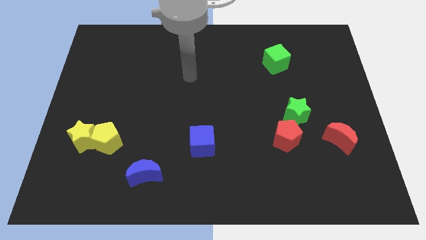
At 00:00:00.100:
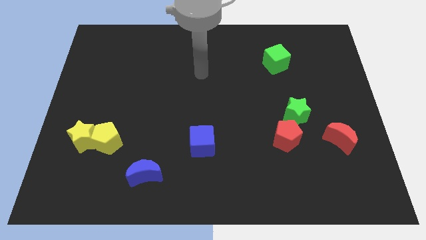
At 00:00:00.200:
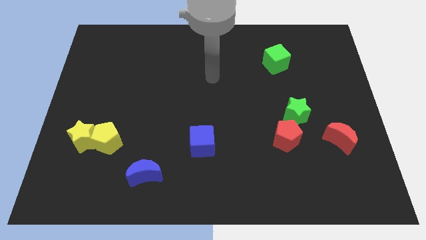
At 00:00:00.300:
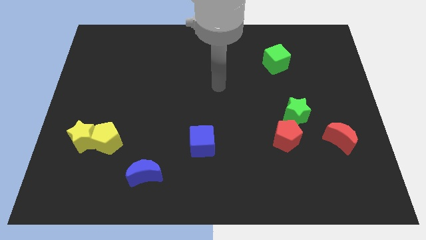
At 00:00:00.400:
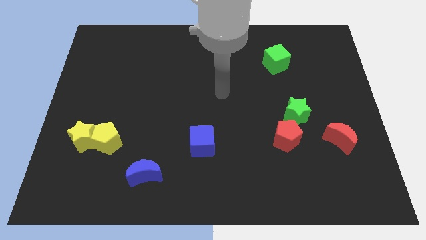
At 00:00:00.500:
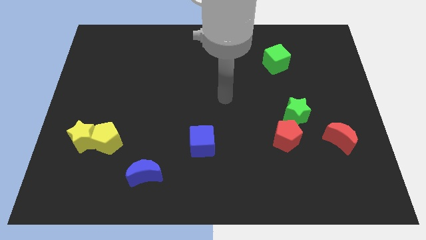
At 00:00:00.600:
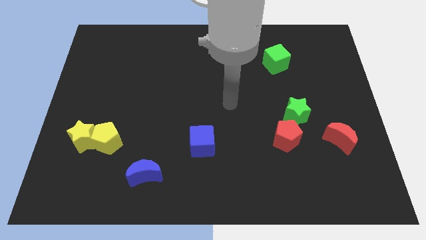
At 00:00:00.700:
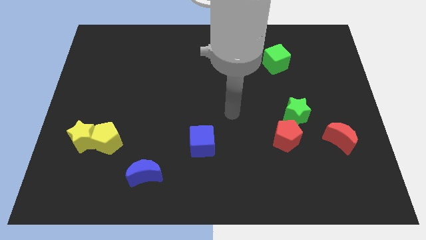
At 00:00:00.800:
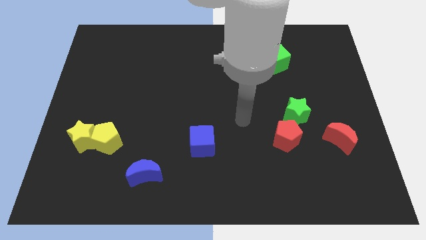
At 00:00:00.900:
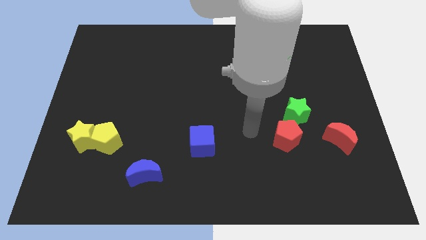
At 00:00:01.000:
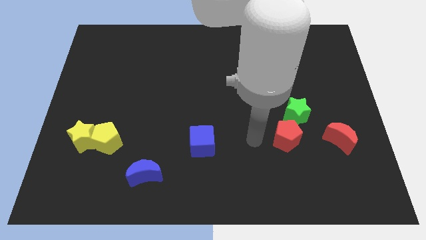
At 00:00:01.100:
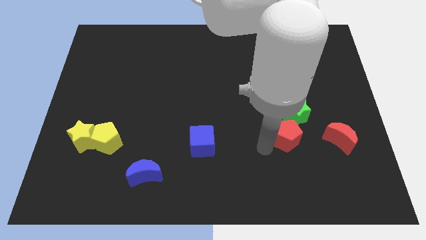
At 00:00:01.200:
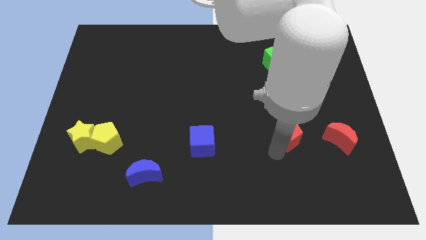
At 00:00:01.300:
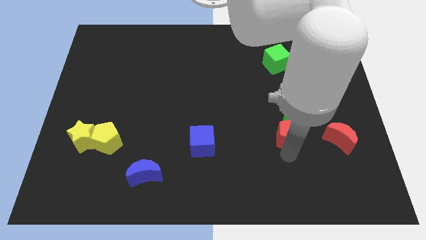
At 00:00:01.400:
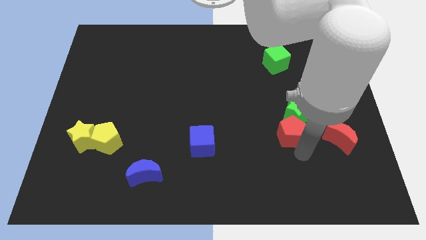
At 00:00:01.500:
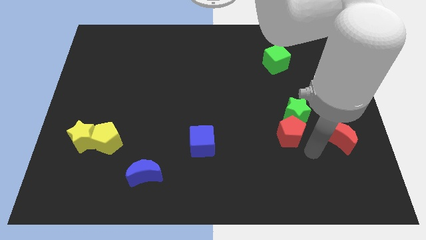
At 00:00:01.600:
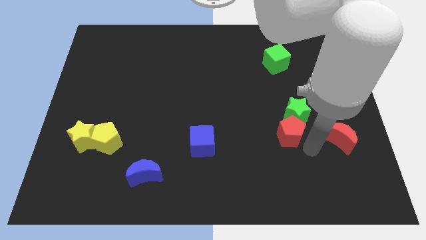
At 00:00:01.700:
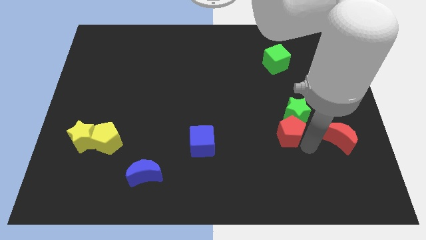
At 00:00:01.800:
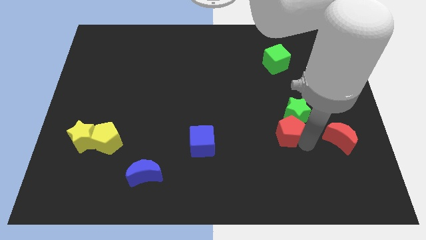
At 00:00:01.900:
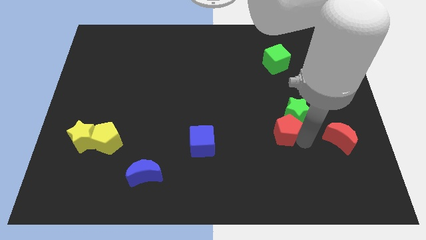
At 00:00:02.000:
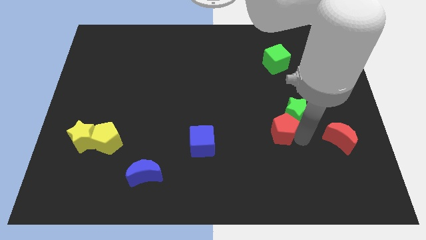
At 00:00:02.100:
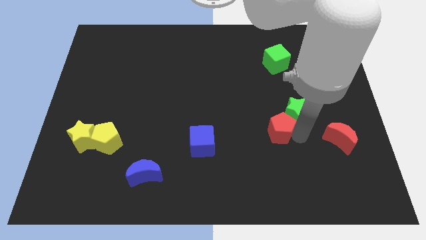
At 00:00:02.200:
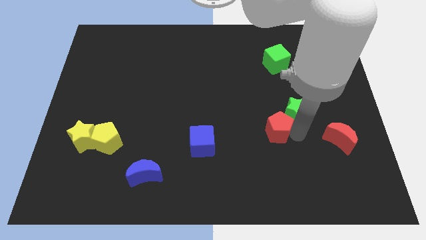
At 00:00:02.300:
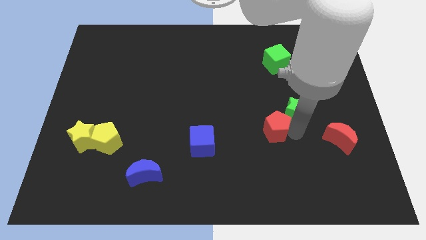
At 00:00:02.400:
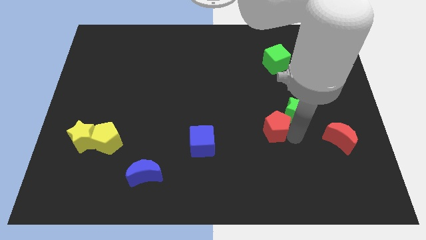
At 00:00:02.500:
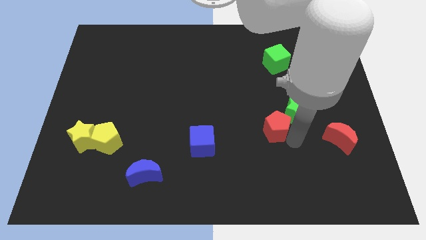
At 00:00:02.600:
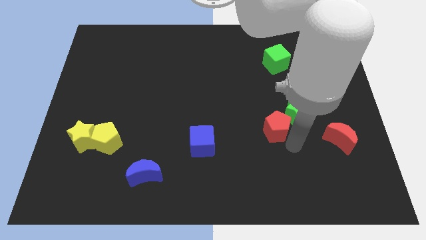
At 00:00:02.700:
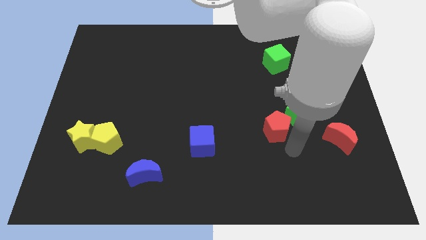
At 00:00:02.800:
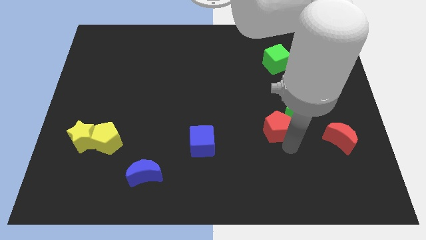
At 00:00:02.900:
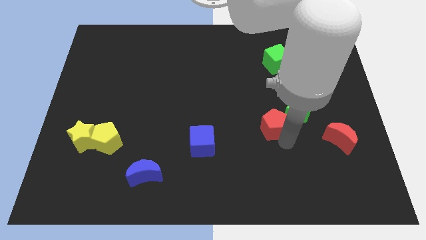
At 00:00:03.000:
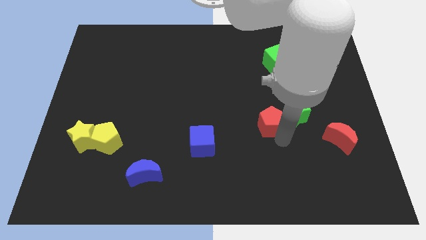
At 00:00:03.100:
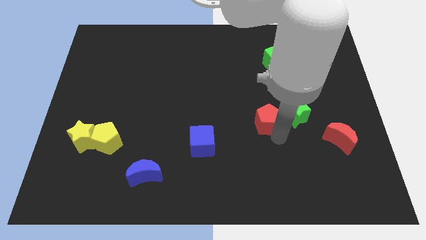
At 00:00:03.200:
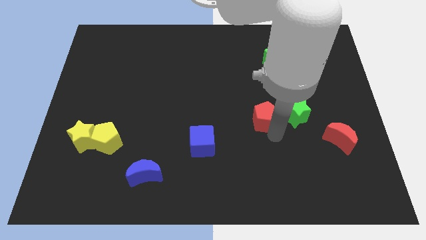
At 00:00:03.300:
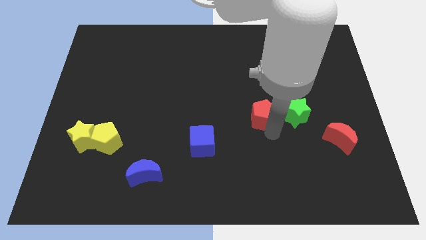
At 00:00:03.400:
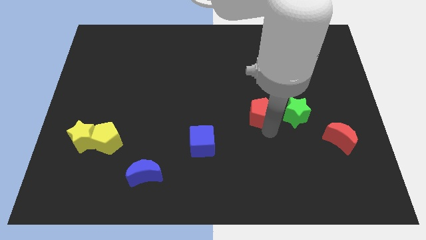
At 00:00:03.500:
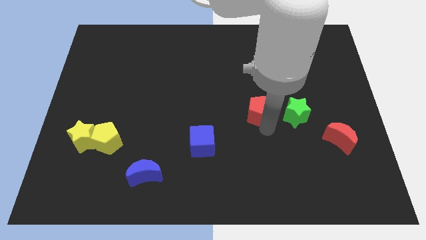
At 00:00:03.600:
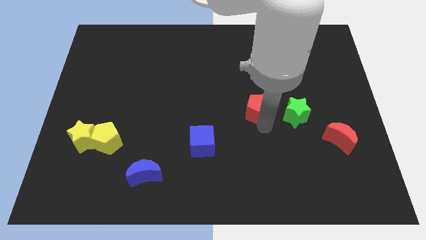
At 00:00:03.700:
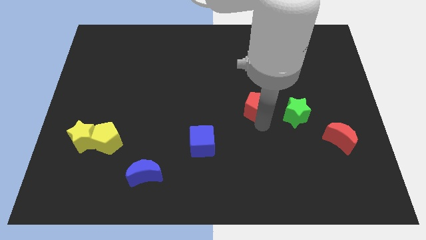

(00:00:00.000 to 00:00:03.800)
slightly slide the red pentagon up

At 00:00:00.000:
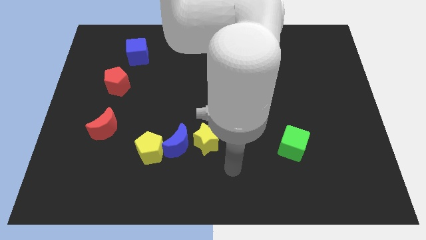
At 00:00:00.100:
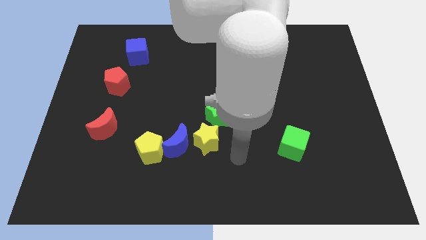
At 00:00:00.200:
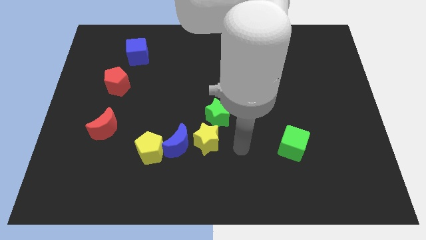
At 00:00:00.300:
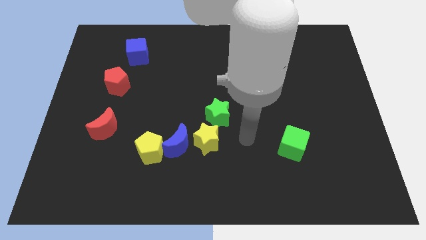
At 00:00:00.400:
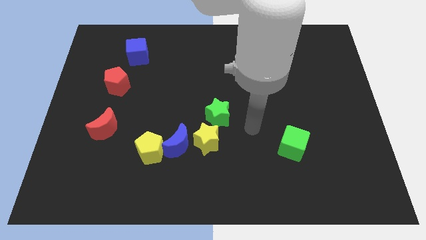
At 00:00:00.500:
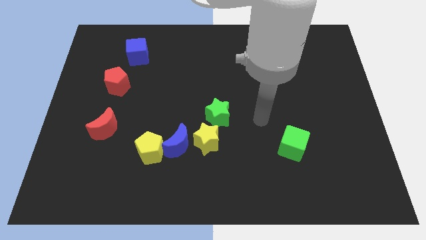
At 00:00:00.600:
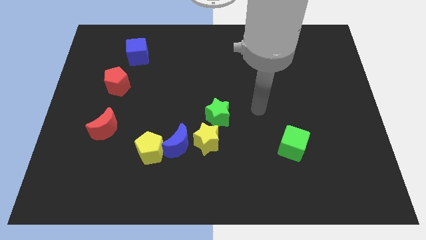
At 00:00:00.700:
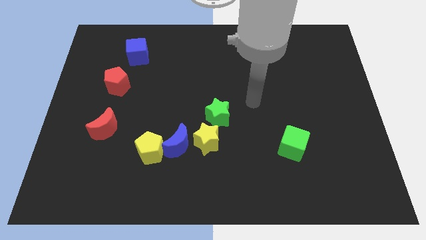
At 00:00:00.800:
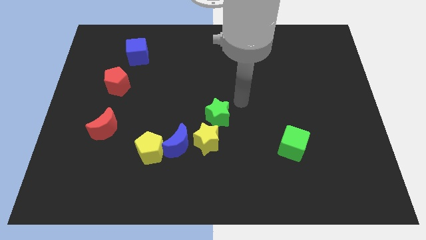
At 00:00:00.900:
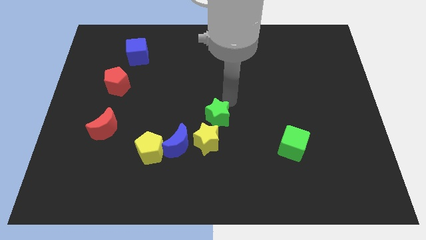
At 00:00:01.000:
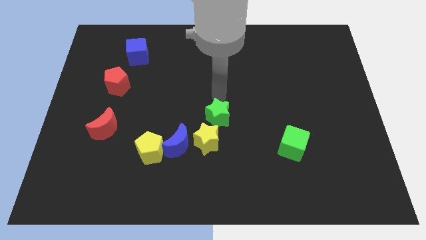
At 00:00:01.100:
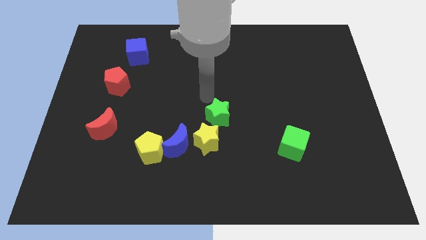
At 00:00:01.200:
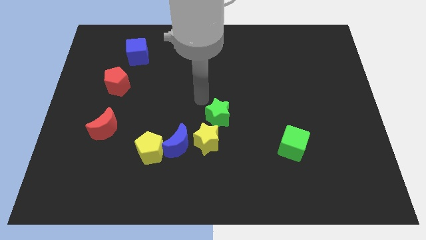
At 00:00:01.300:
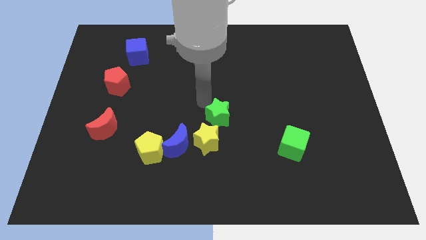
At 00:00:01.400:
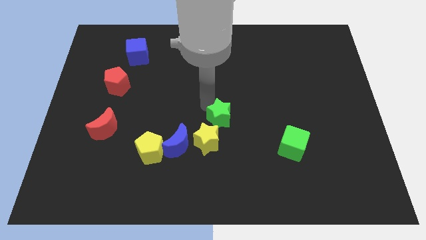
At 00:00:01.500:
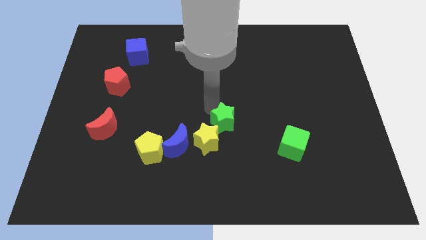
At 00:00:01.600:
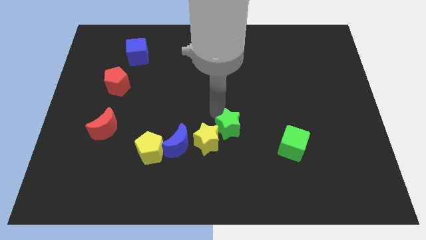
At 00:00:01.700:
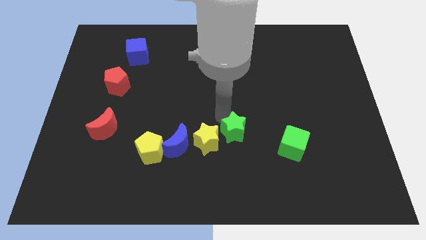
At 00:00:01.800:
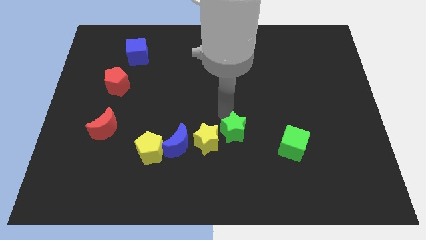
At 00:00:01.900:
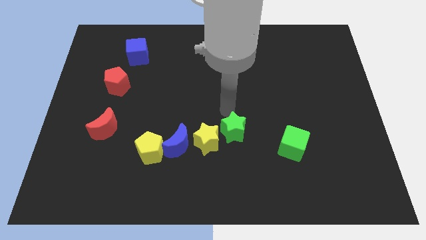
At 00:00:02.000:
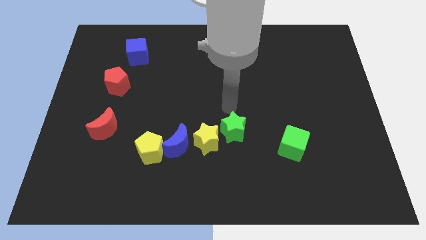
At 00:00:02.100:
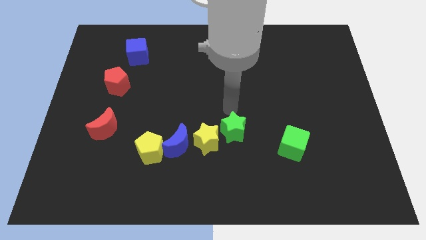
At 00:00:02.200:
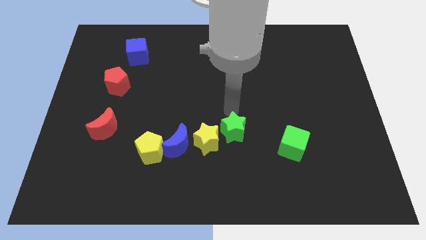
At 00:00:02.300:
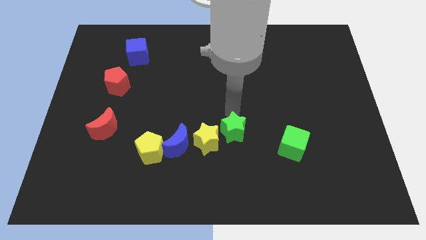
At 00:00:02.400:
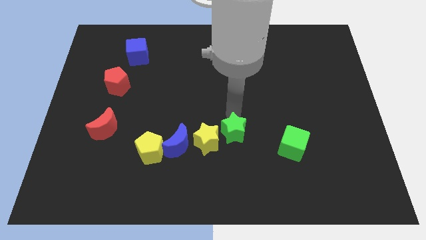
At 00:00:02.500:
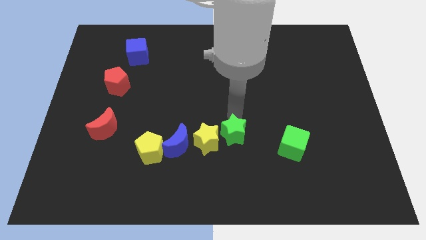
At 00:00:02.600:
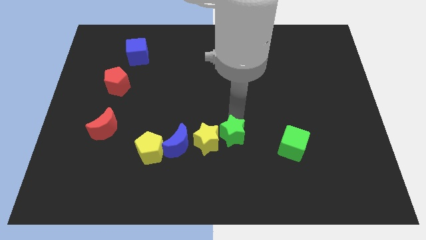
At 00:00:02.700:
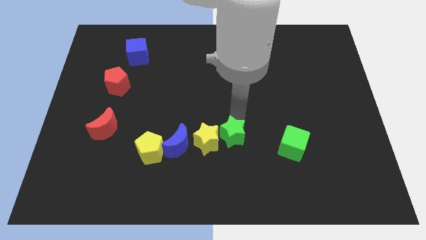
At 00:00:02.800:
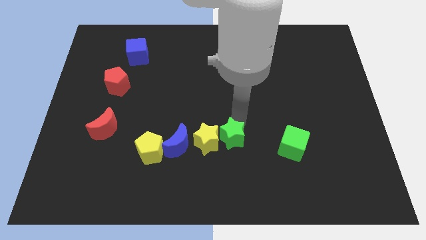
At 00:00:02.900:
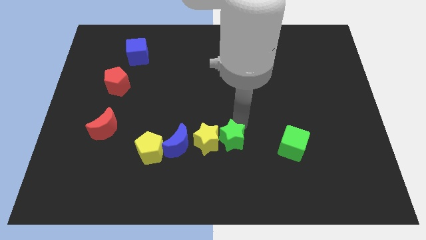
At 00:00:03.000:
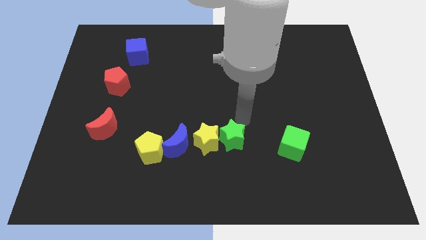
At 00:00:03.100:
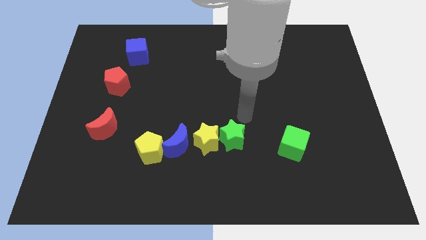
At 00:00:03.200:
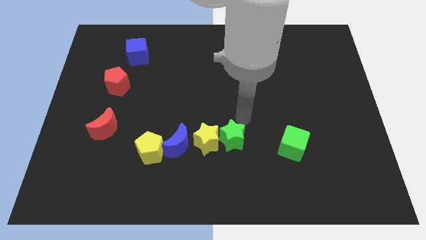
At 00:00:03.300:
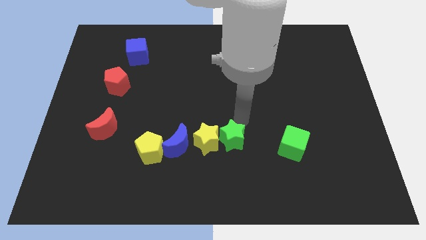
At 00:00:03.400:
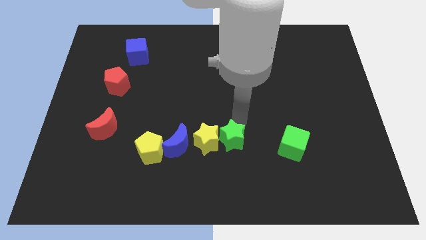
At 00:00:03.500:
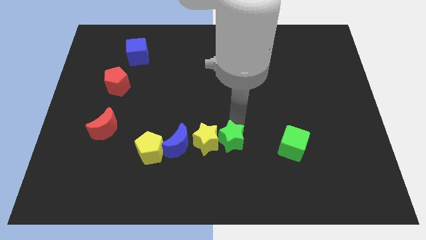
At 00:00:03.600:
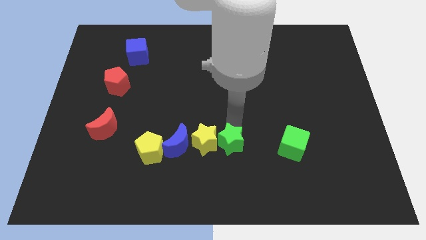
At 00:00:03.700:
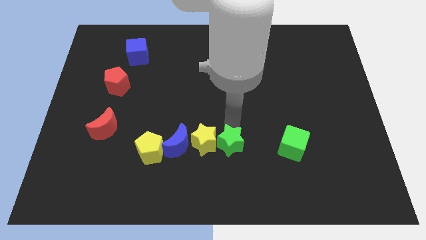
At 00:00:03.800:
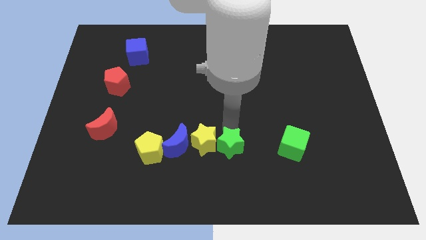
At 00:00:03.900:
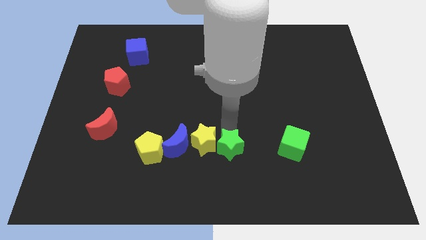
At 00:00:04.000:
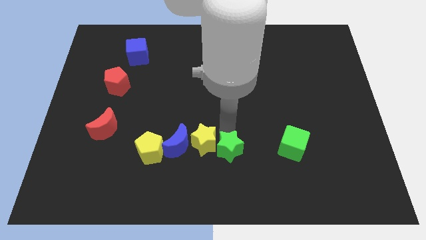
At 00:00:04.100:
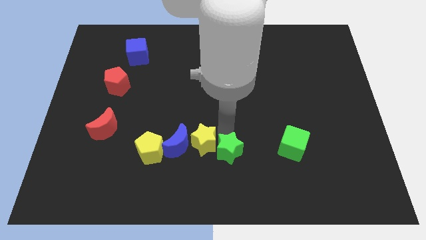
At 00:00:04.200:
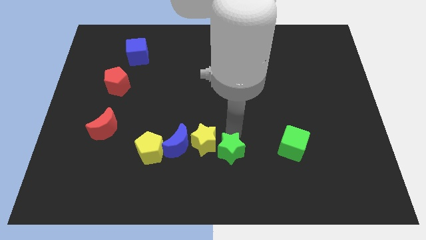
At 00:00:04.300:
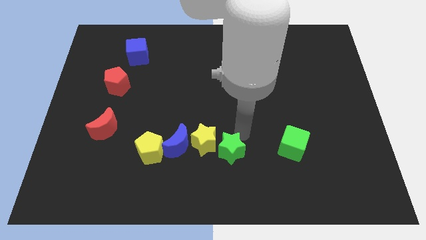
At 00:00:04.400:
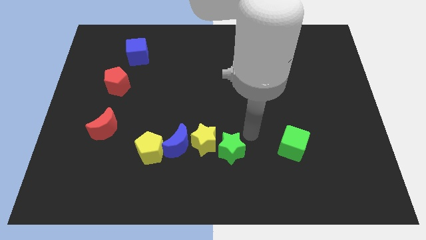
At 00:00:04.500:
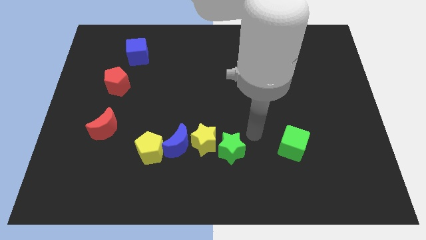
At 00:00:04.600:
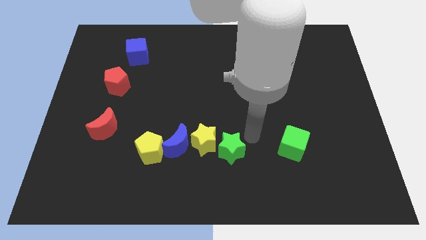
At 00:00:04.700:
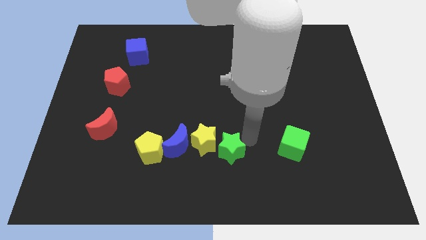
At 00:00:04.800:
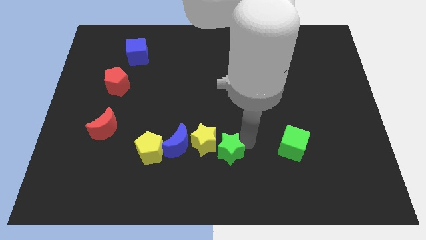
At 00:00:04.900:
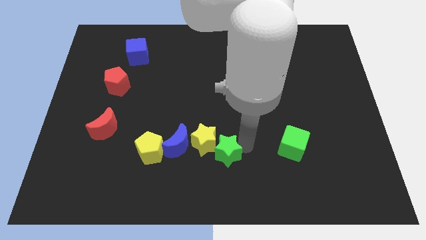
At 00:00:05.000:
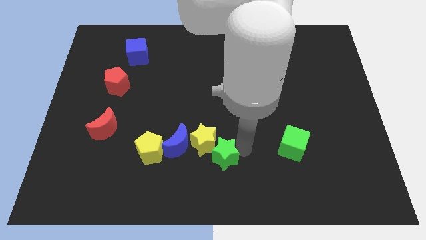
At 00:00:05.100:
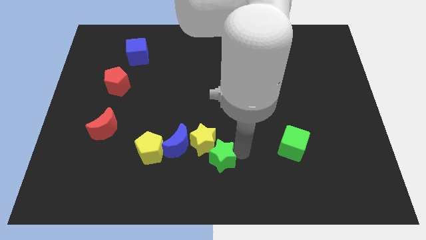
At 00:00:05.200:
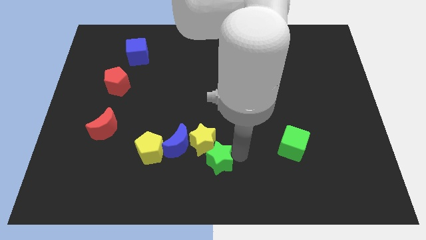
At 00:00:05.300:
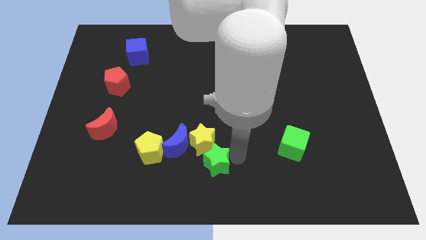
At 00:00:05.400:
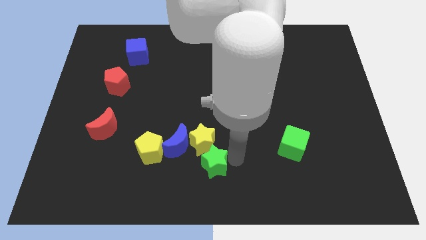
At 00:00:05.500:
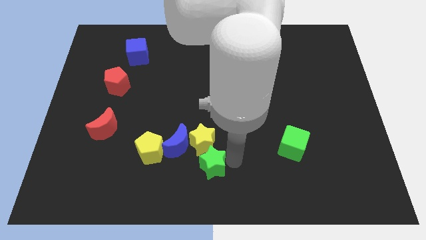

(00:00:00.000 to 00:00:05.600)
push the green star somewhat downwards and then left
